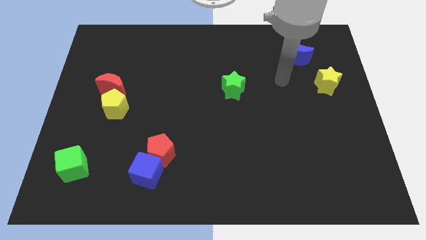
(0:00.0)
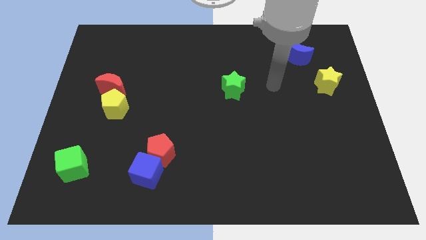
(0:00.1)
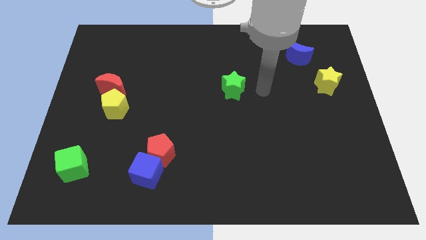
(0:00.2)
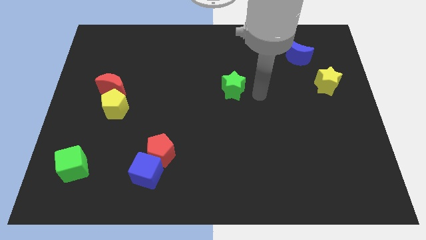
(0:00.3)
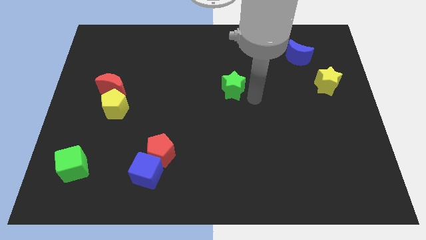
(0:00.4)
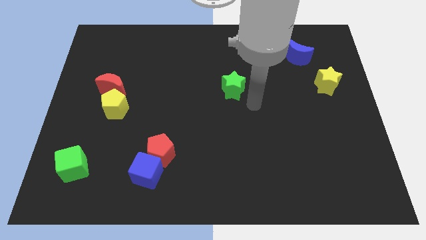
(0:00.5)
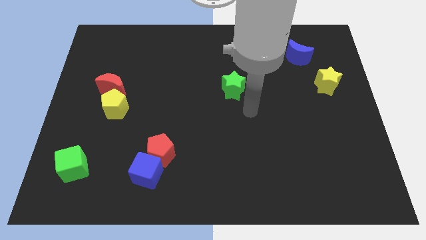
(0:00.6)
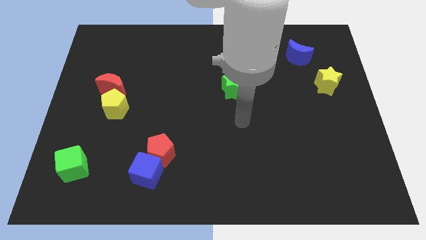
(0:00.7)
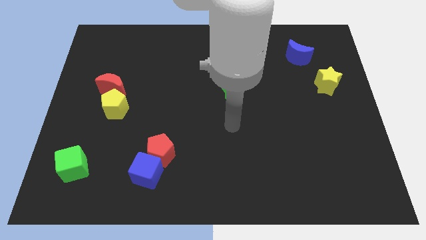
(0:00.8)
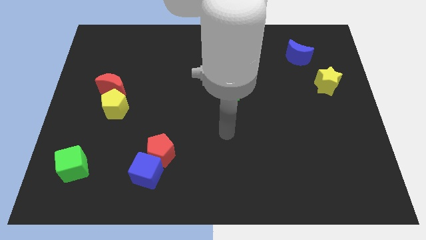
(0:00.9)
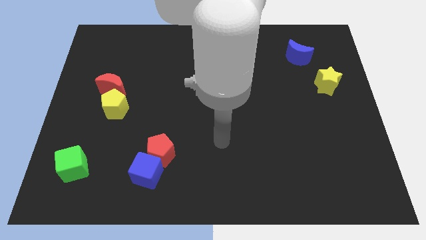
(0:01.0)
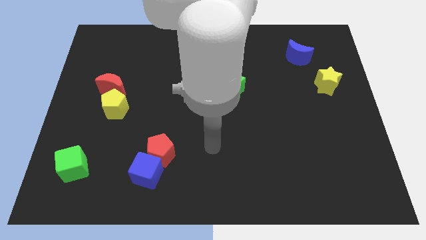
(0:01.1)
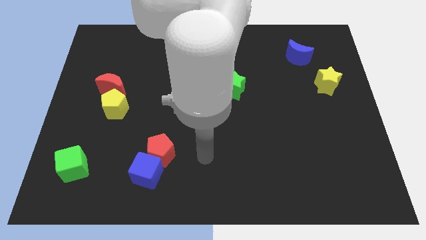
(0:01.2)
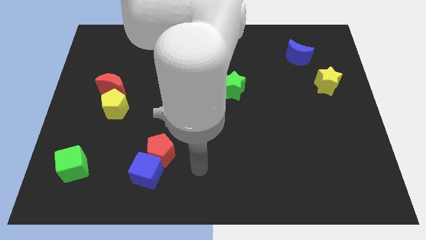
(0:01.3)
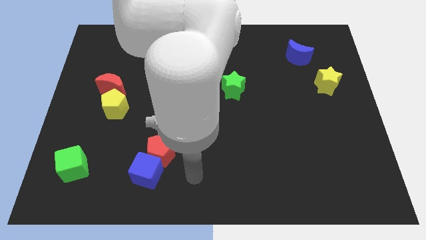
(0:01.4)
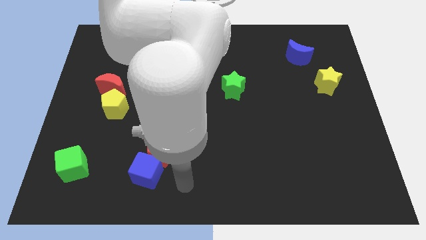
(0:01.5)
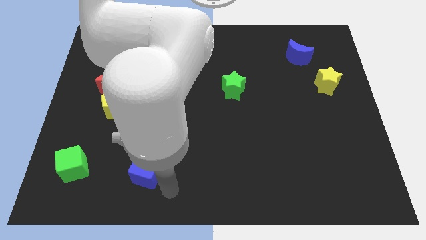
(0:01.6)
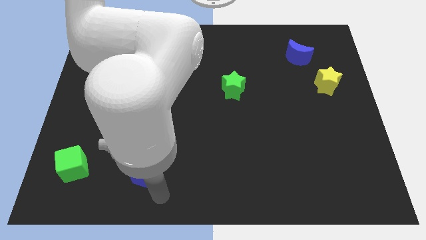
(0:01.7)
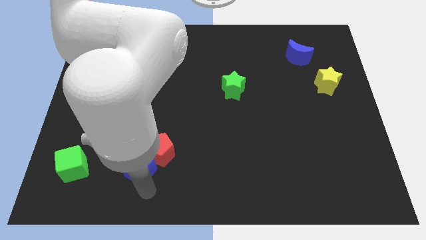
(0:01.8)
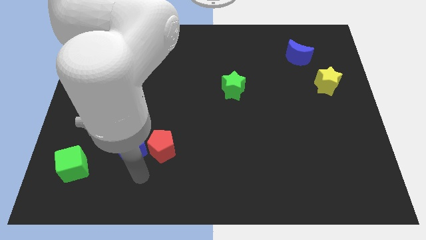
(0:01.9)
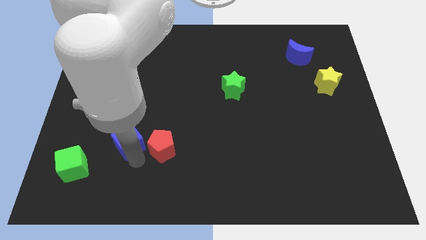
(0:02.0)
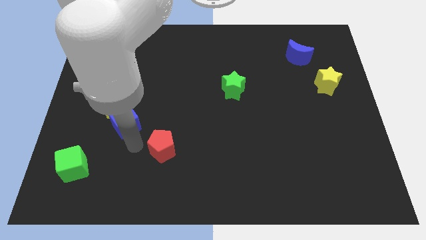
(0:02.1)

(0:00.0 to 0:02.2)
move the red pentagon away from the blue cube

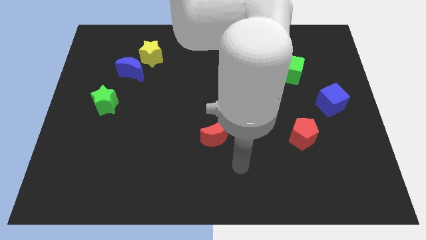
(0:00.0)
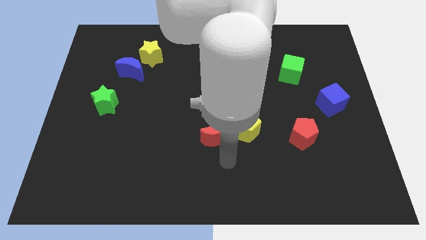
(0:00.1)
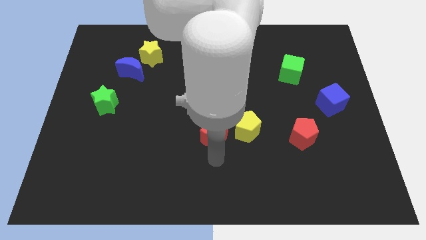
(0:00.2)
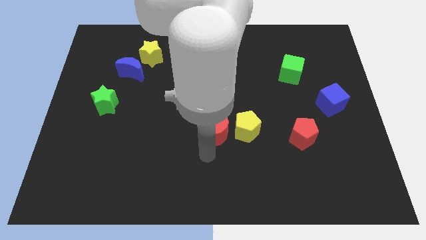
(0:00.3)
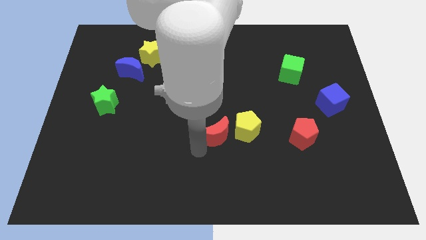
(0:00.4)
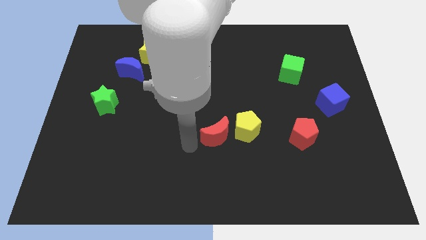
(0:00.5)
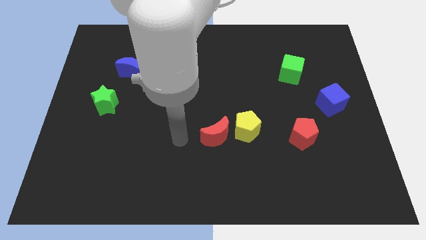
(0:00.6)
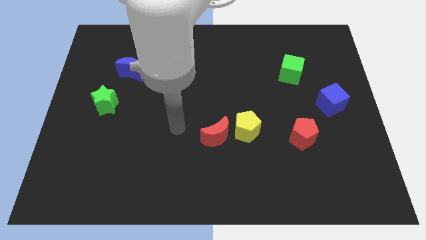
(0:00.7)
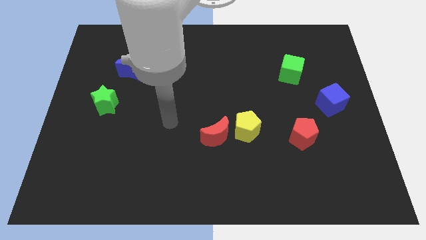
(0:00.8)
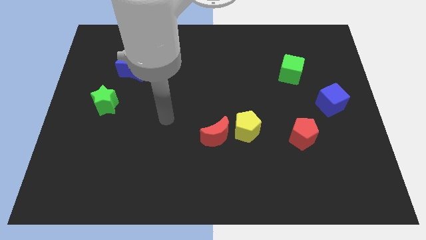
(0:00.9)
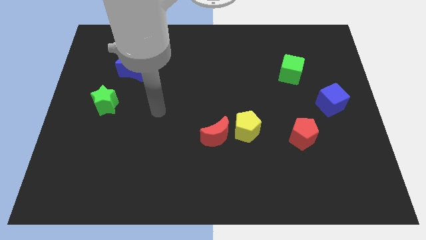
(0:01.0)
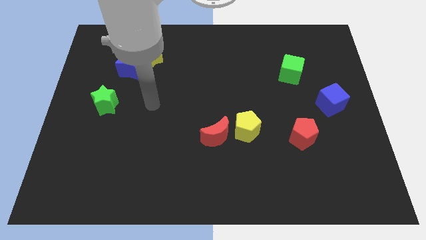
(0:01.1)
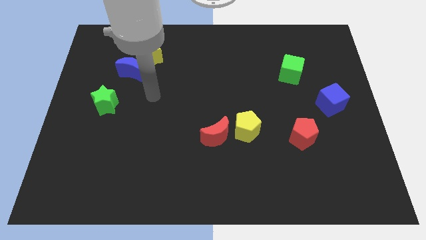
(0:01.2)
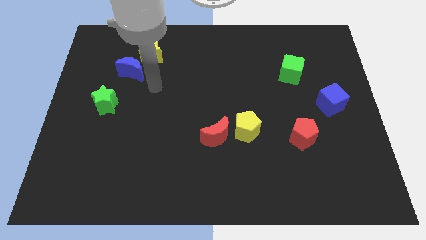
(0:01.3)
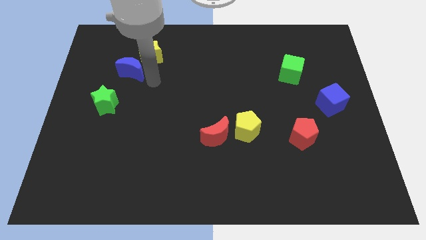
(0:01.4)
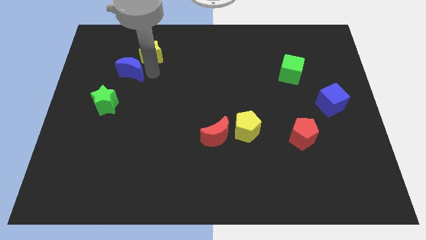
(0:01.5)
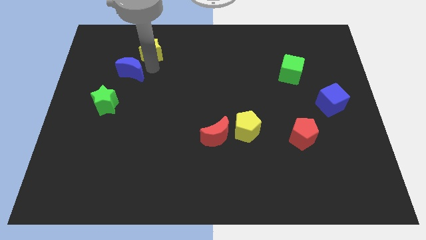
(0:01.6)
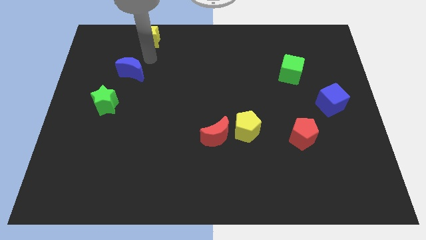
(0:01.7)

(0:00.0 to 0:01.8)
move the blue moon away from the yellow star

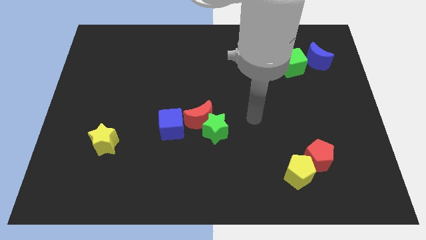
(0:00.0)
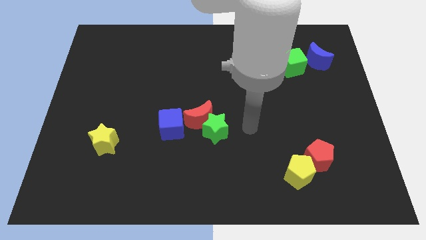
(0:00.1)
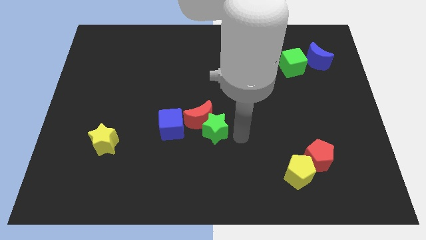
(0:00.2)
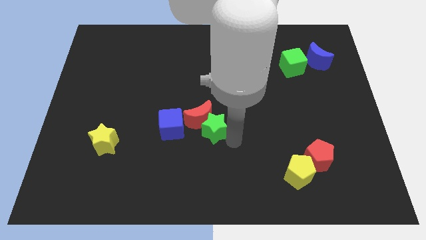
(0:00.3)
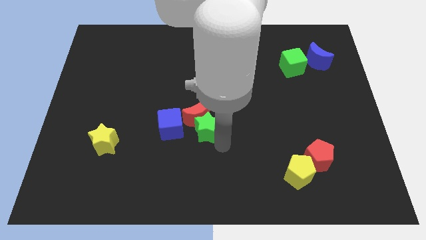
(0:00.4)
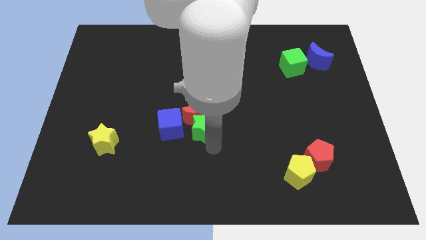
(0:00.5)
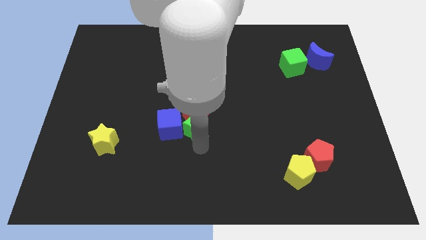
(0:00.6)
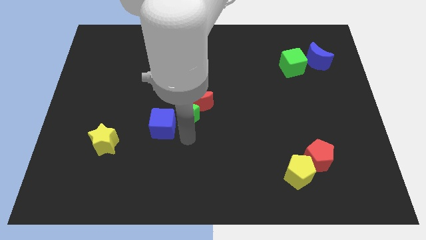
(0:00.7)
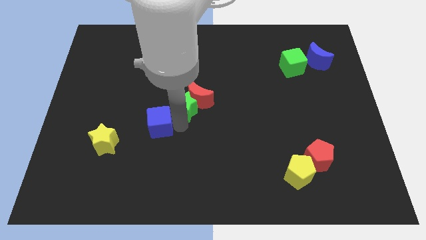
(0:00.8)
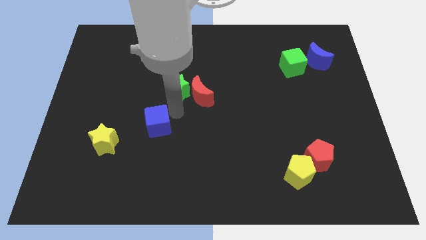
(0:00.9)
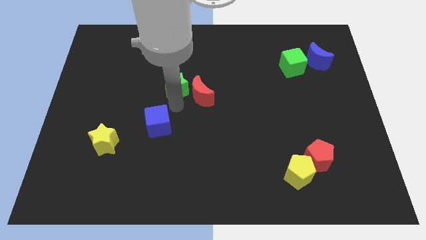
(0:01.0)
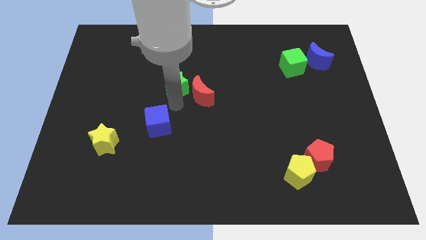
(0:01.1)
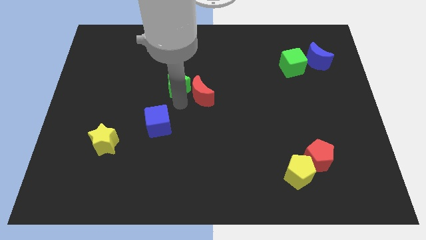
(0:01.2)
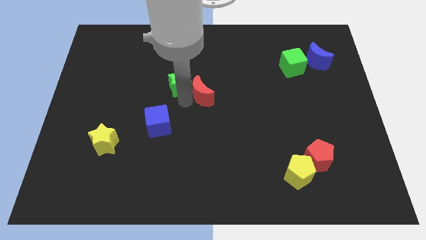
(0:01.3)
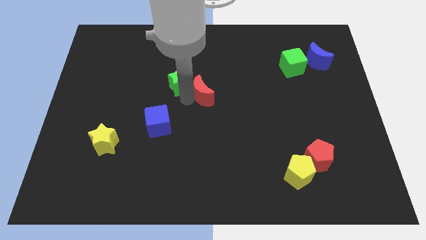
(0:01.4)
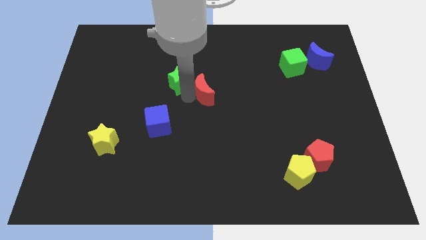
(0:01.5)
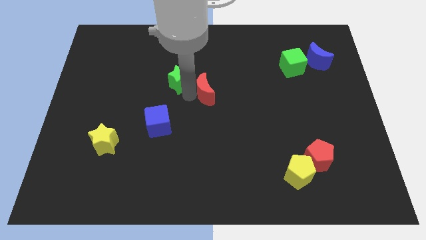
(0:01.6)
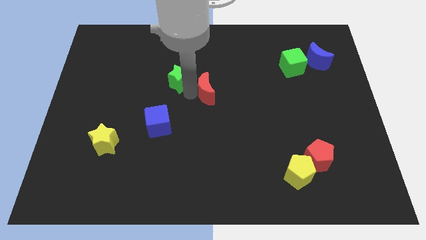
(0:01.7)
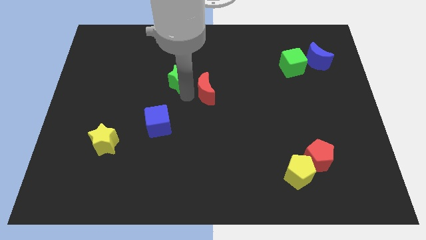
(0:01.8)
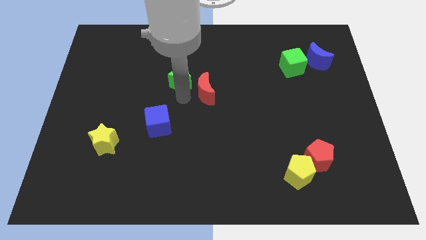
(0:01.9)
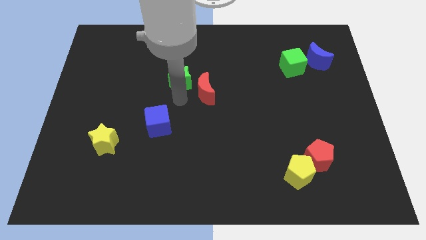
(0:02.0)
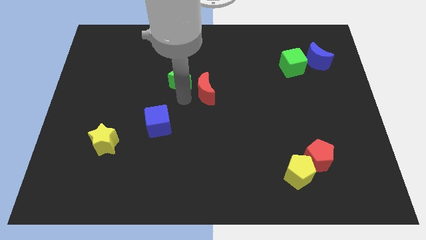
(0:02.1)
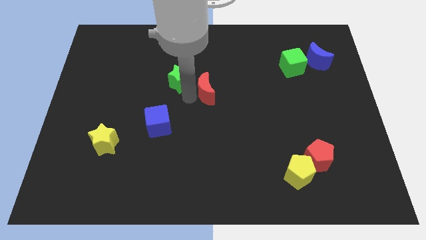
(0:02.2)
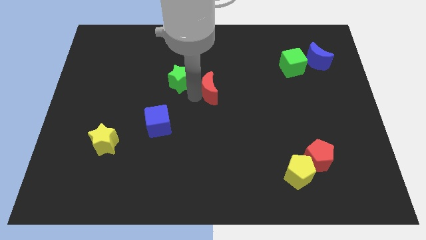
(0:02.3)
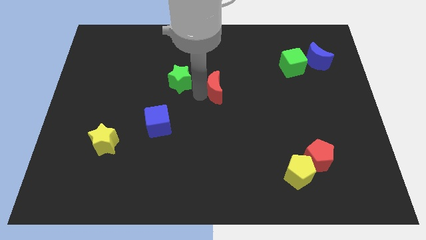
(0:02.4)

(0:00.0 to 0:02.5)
move the red moon away from the green star and blue cube

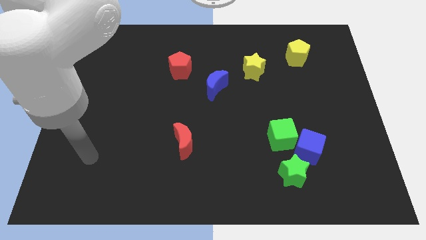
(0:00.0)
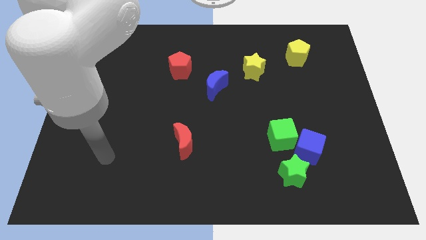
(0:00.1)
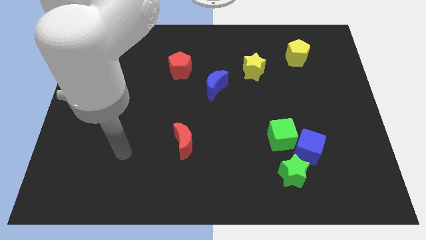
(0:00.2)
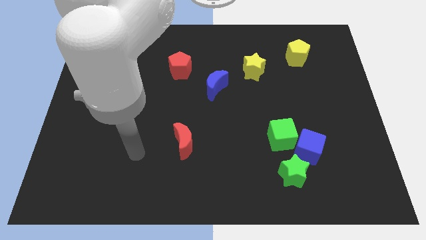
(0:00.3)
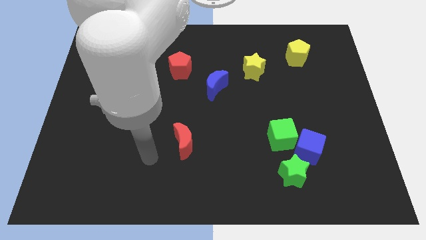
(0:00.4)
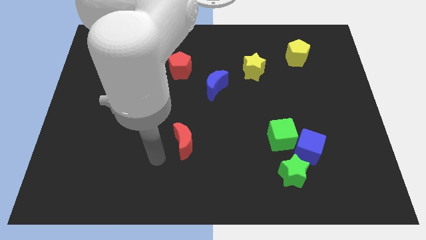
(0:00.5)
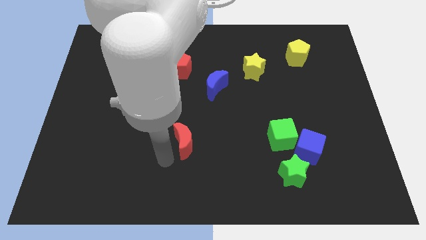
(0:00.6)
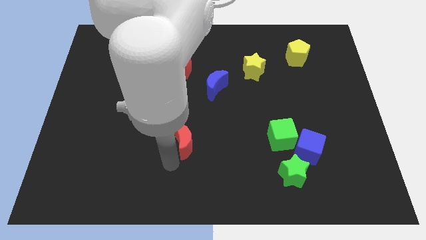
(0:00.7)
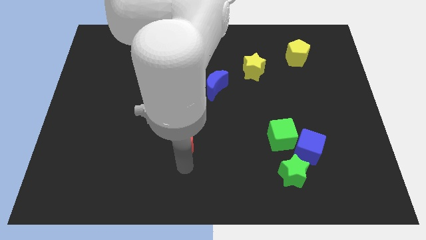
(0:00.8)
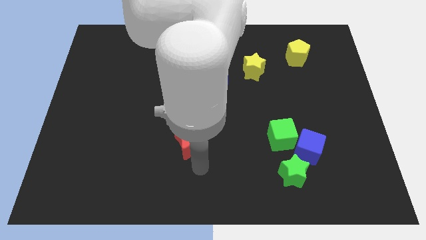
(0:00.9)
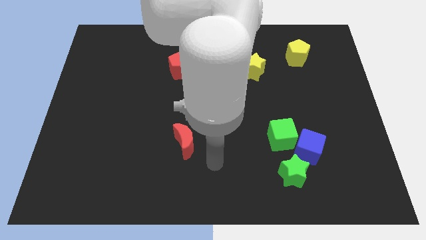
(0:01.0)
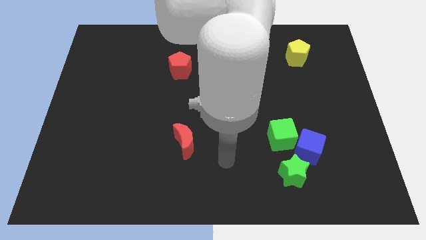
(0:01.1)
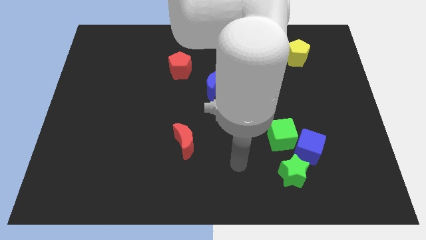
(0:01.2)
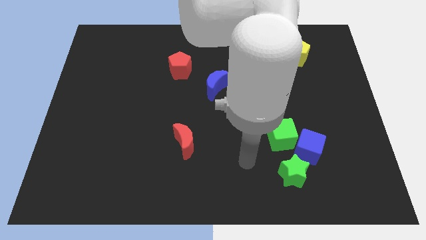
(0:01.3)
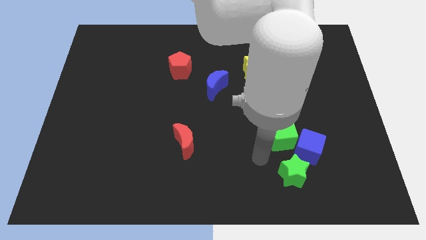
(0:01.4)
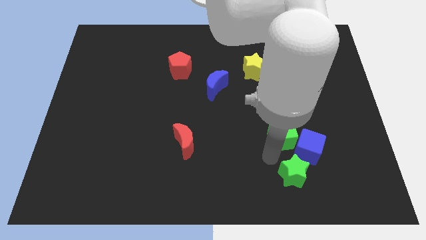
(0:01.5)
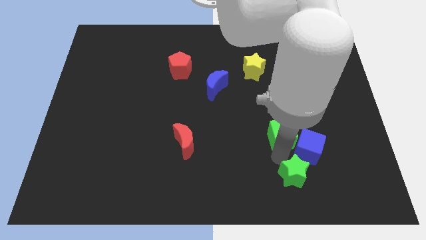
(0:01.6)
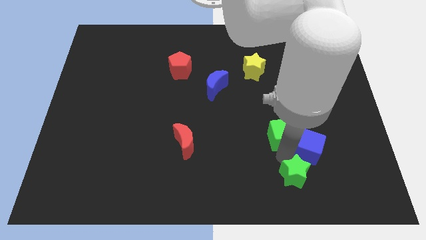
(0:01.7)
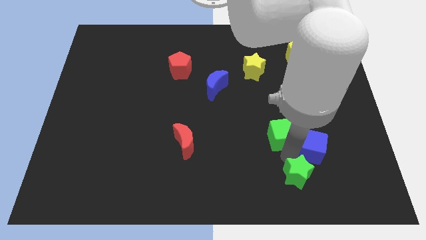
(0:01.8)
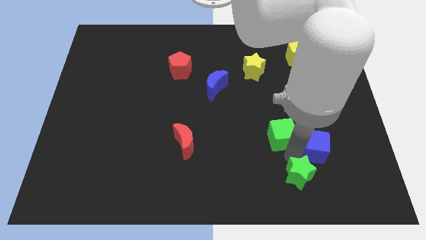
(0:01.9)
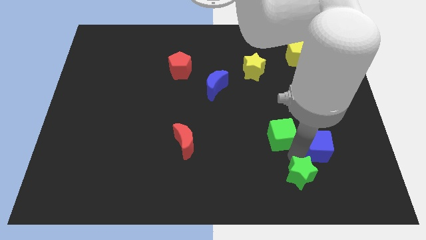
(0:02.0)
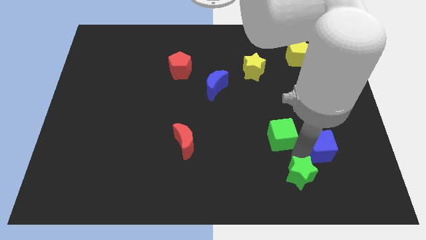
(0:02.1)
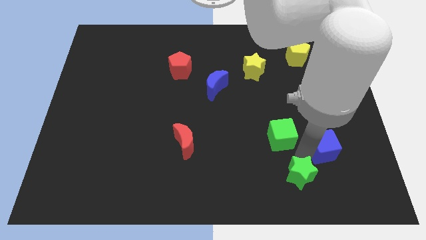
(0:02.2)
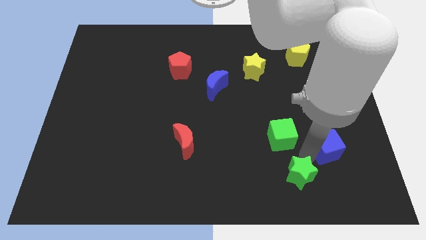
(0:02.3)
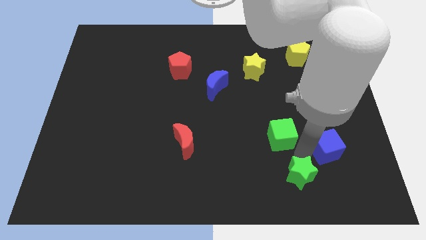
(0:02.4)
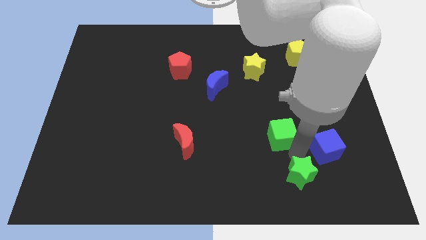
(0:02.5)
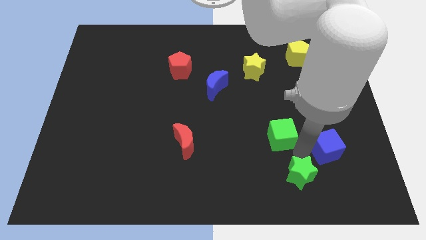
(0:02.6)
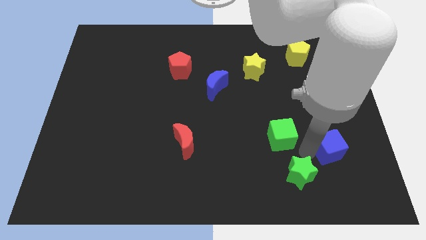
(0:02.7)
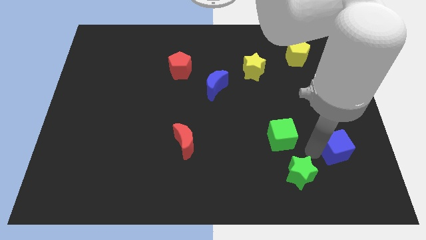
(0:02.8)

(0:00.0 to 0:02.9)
separate the blue cube from the green cube and green star

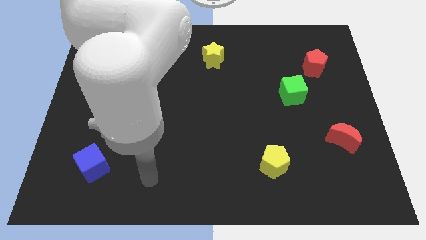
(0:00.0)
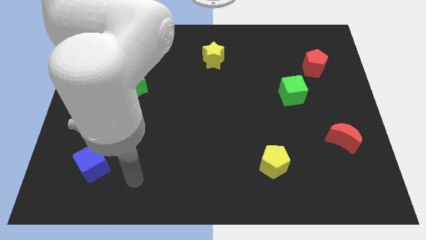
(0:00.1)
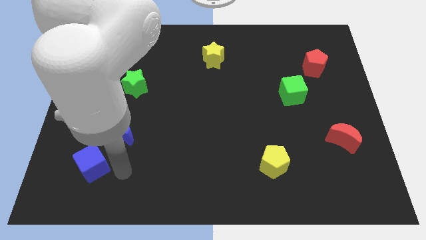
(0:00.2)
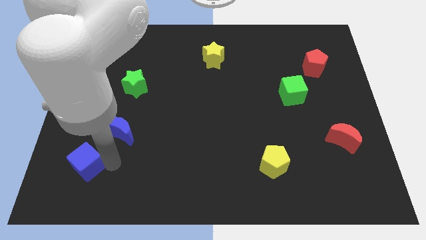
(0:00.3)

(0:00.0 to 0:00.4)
move the blue moon away from the blue cube
